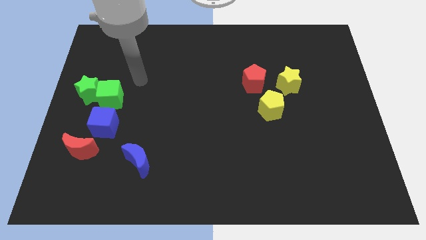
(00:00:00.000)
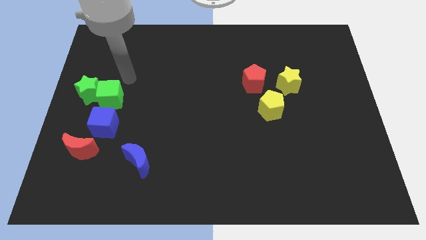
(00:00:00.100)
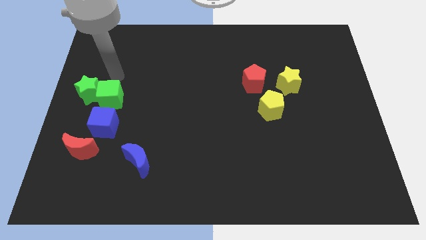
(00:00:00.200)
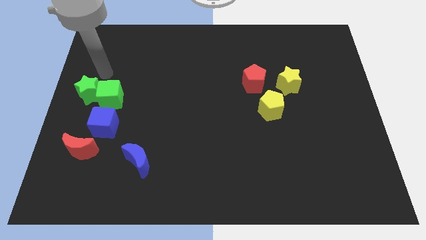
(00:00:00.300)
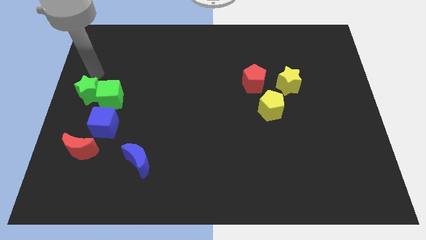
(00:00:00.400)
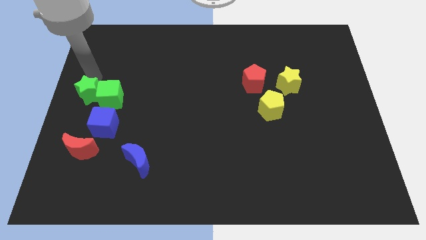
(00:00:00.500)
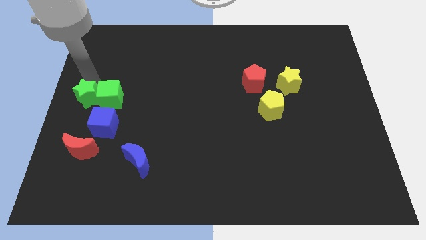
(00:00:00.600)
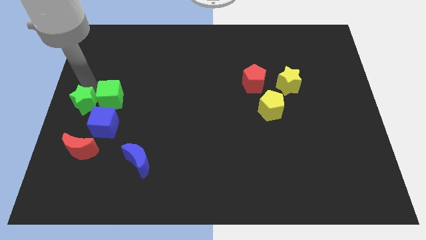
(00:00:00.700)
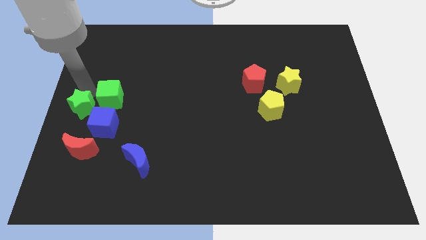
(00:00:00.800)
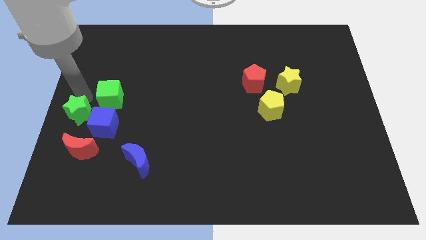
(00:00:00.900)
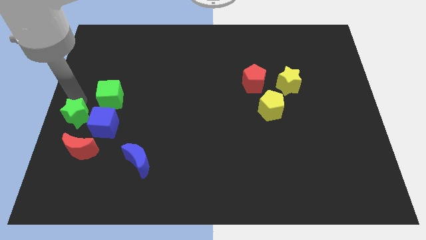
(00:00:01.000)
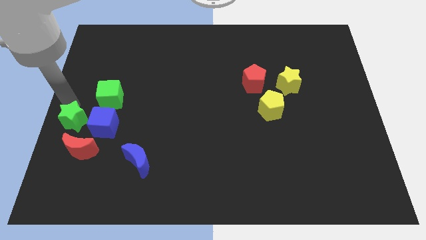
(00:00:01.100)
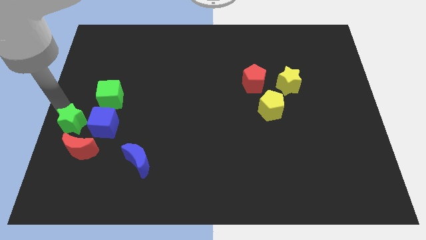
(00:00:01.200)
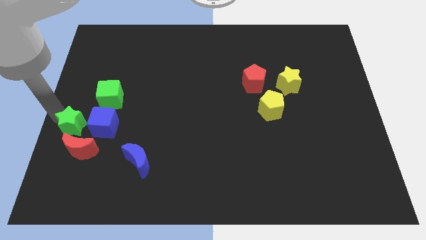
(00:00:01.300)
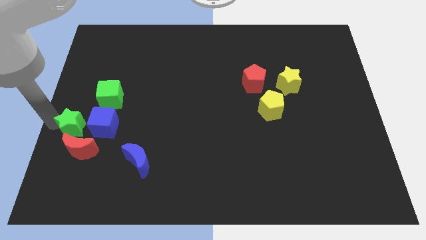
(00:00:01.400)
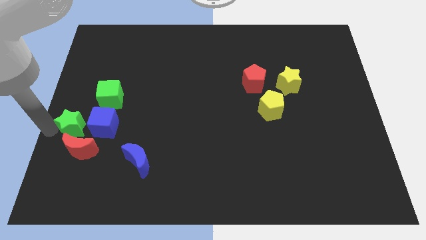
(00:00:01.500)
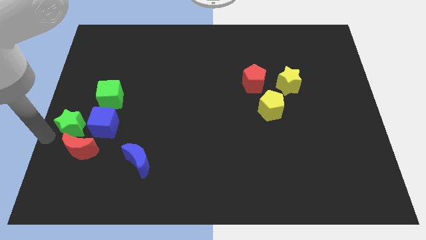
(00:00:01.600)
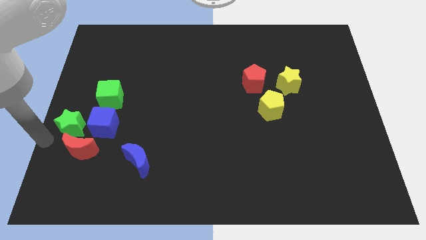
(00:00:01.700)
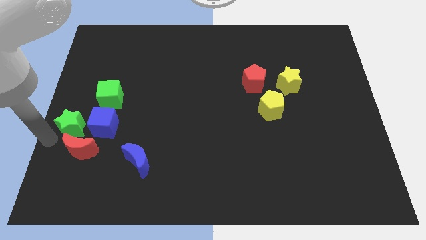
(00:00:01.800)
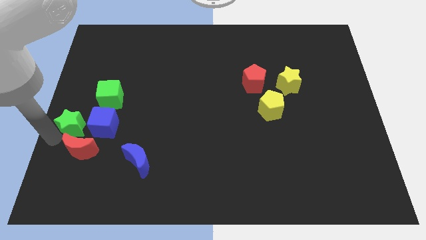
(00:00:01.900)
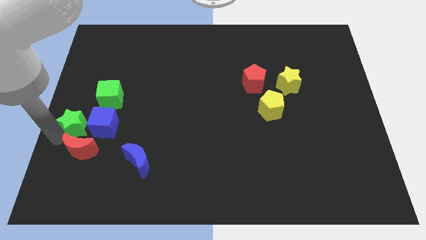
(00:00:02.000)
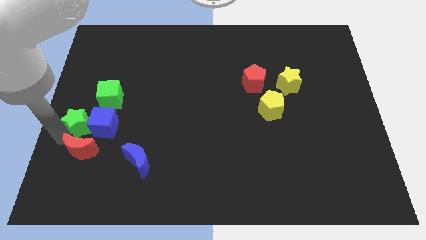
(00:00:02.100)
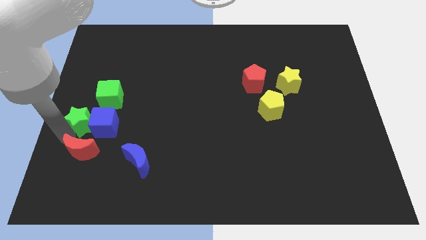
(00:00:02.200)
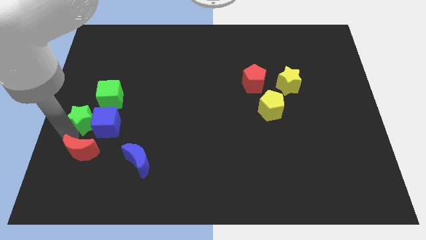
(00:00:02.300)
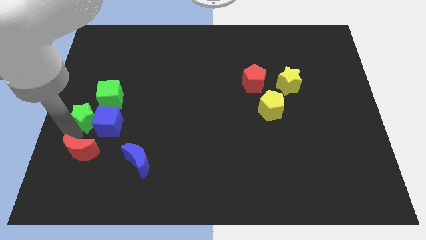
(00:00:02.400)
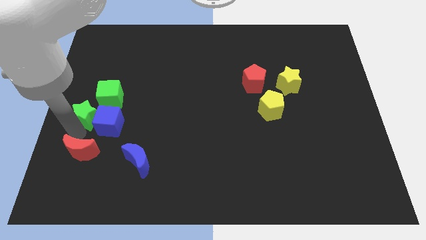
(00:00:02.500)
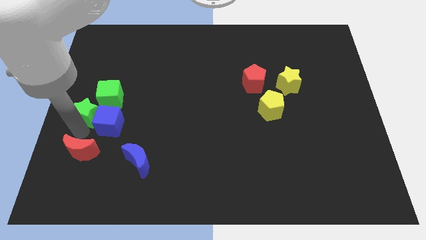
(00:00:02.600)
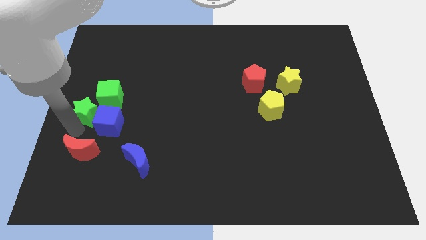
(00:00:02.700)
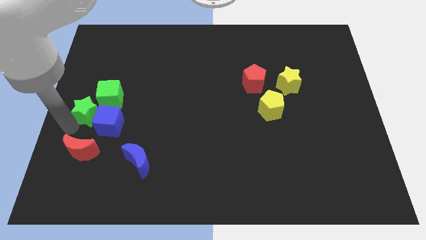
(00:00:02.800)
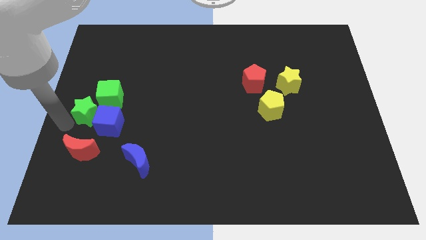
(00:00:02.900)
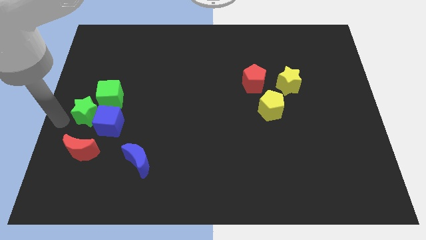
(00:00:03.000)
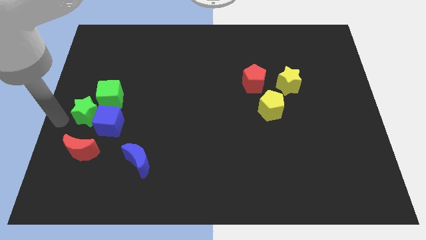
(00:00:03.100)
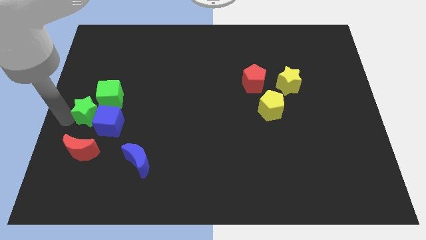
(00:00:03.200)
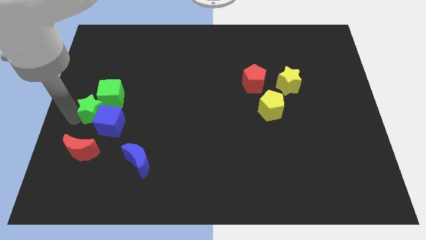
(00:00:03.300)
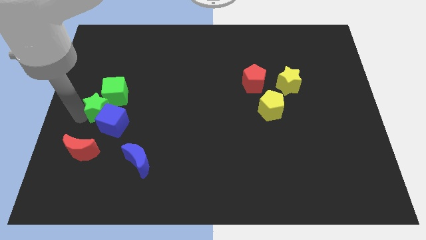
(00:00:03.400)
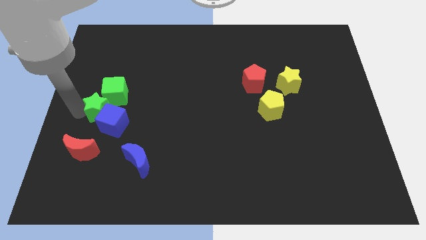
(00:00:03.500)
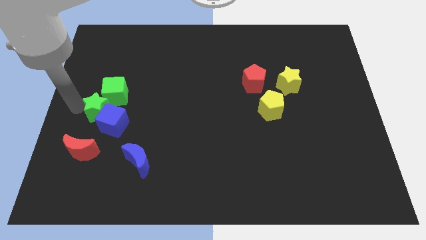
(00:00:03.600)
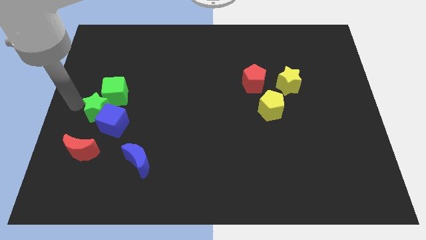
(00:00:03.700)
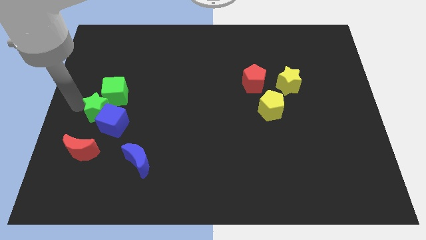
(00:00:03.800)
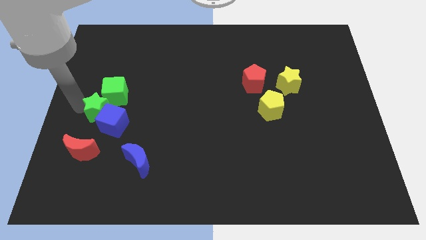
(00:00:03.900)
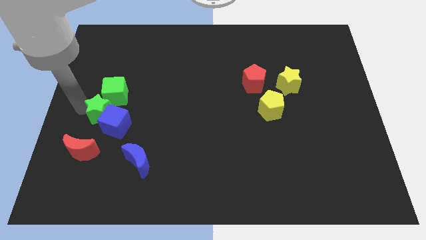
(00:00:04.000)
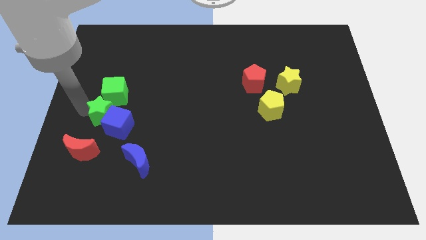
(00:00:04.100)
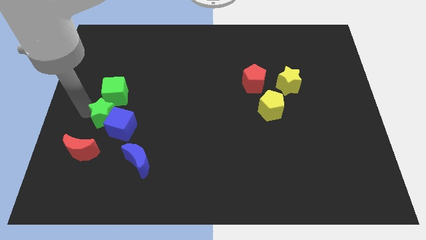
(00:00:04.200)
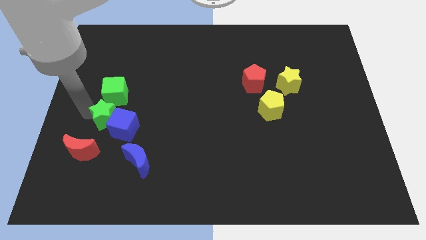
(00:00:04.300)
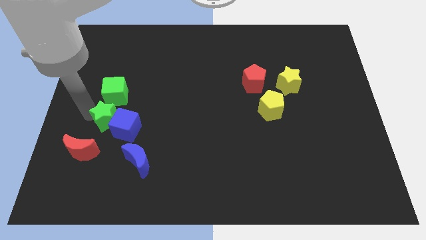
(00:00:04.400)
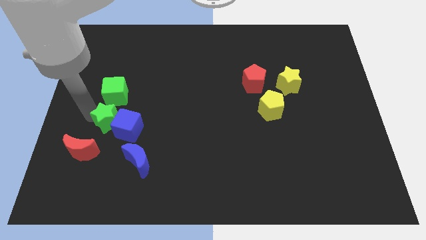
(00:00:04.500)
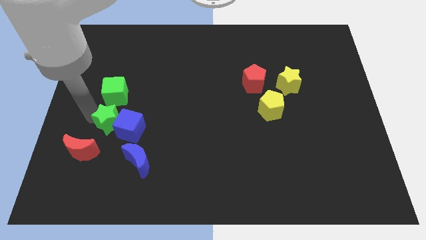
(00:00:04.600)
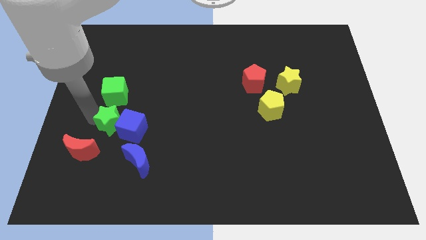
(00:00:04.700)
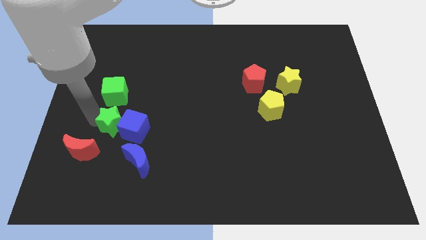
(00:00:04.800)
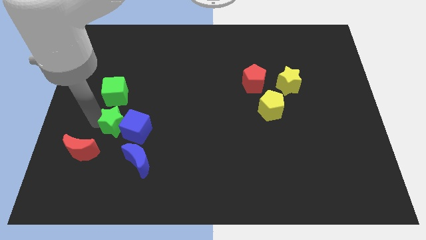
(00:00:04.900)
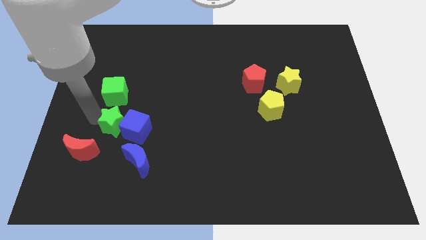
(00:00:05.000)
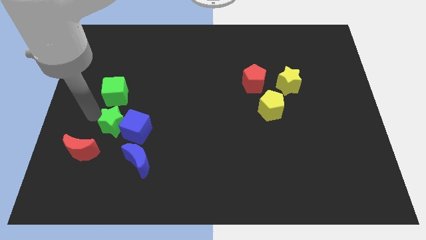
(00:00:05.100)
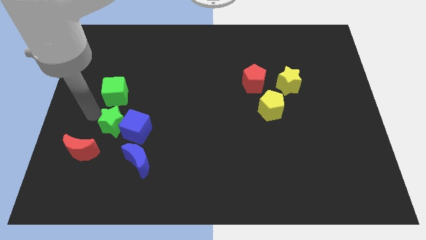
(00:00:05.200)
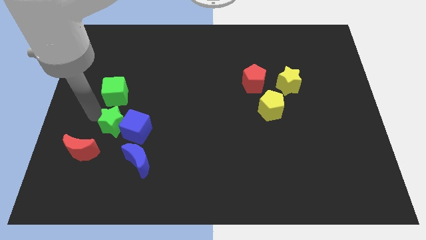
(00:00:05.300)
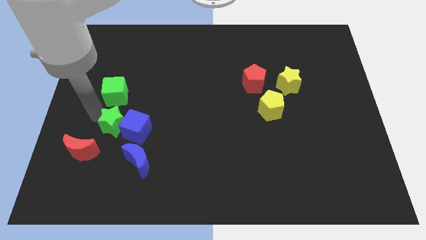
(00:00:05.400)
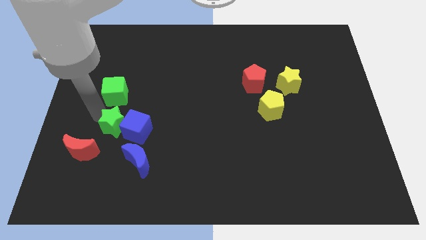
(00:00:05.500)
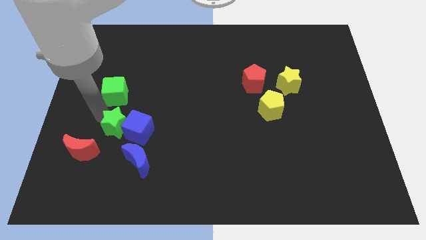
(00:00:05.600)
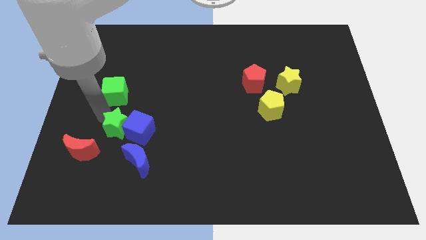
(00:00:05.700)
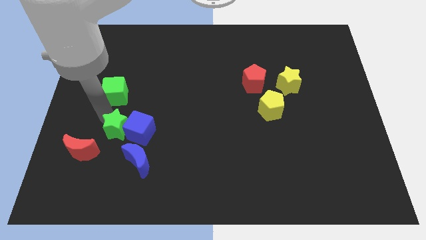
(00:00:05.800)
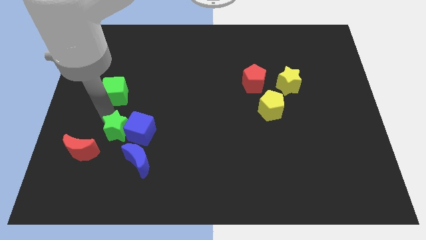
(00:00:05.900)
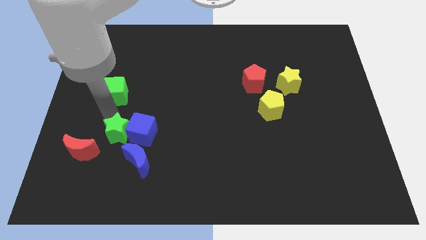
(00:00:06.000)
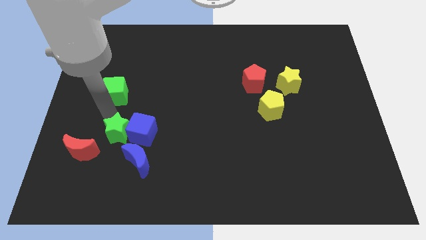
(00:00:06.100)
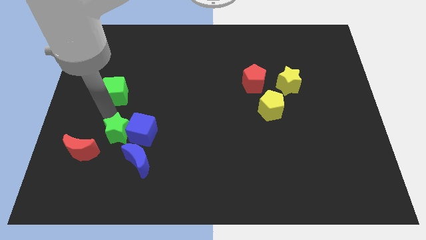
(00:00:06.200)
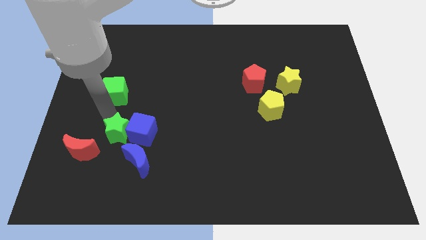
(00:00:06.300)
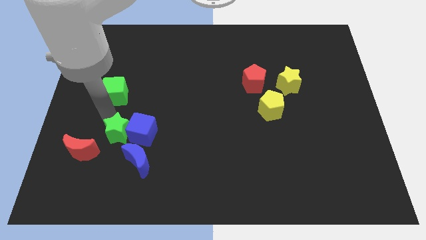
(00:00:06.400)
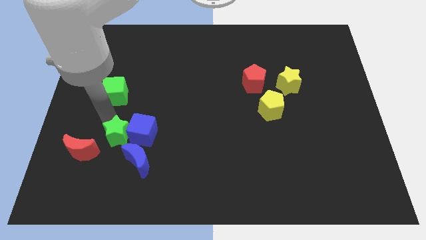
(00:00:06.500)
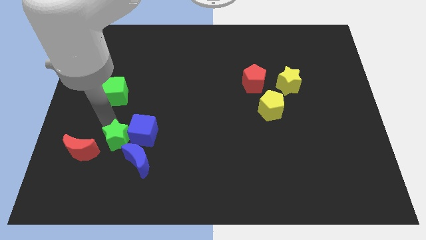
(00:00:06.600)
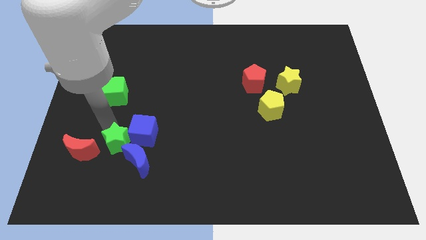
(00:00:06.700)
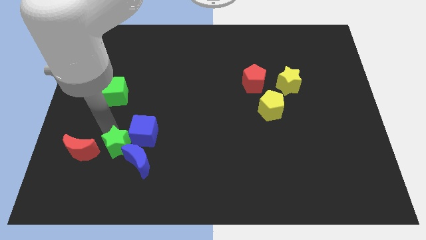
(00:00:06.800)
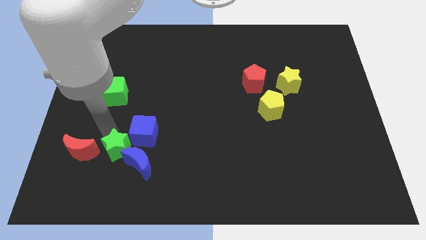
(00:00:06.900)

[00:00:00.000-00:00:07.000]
move the green star close to the blue moon

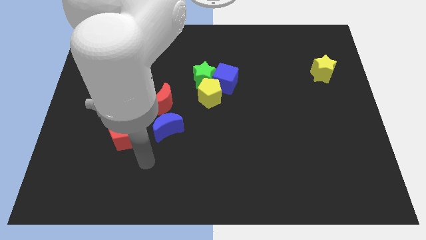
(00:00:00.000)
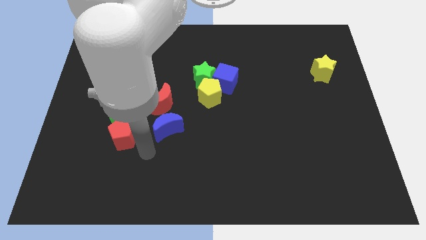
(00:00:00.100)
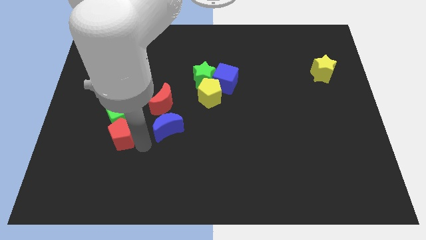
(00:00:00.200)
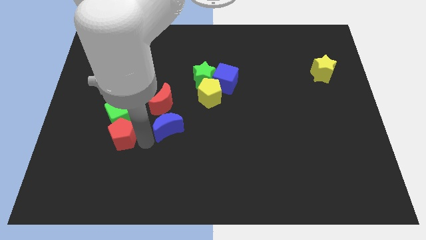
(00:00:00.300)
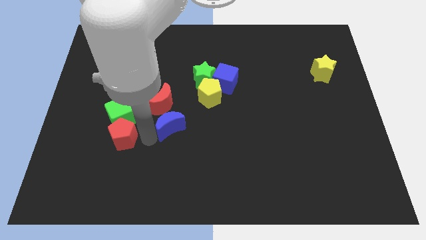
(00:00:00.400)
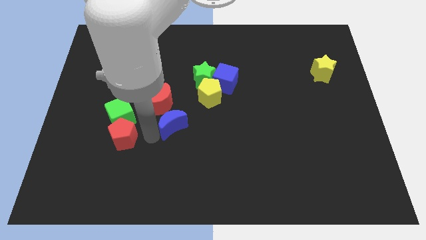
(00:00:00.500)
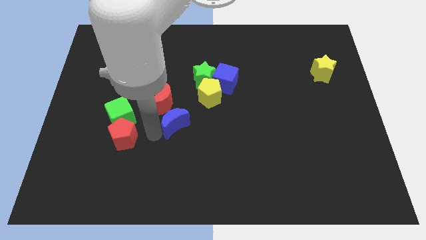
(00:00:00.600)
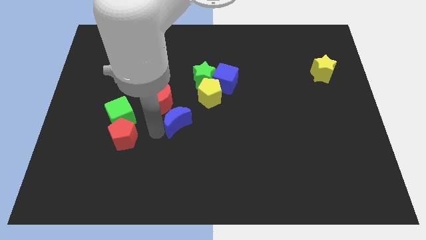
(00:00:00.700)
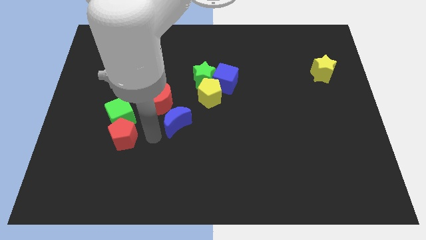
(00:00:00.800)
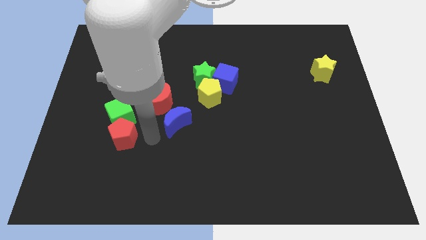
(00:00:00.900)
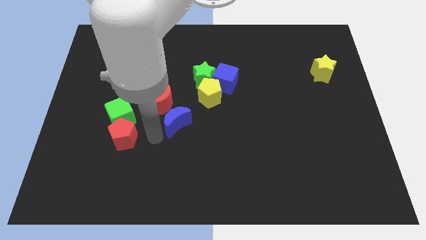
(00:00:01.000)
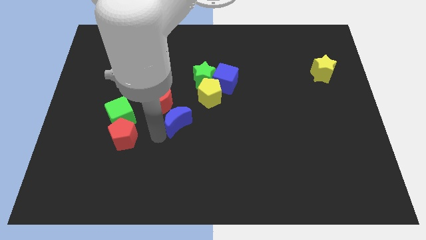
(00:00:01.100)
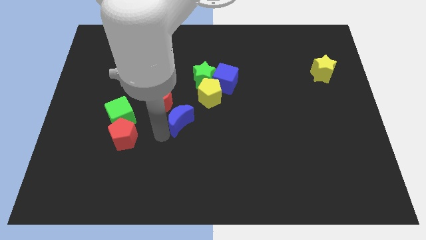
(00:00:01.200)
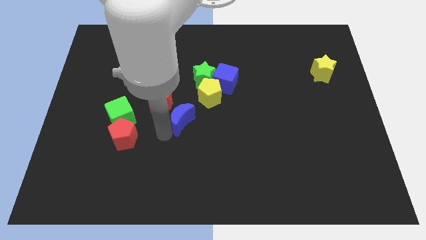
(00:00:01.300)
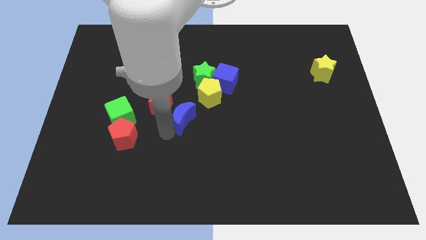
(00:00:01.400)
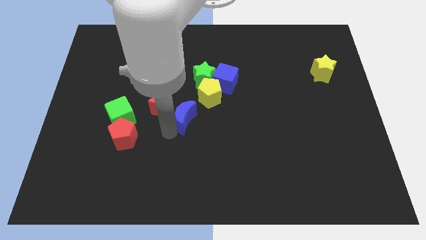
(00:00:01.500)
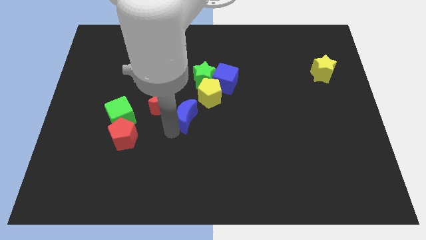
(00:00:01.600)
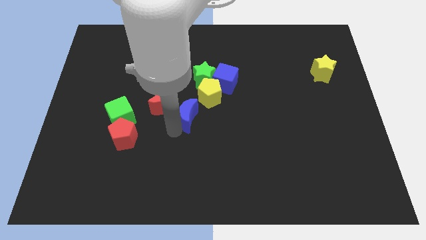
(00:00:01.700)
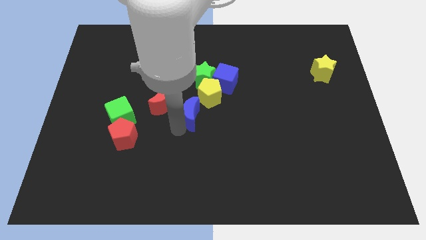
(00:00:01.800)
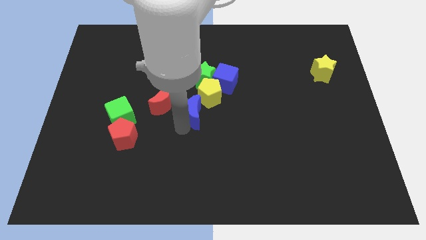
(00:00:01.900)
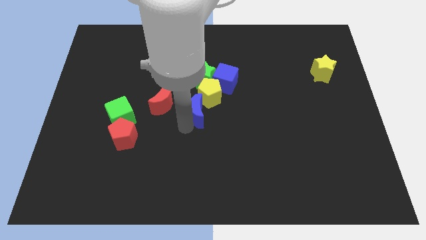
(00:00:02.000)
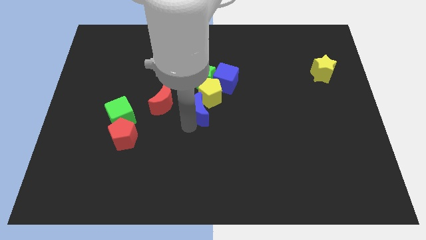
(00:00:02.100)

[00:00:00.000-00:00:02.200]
push the blue moon close to the yellow pentagon
